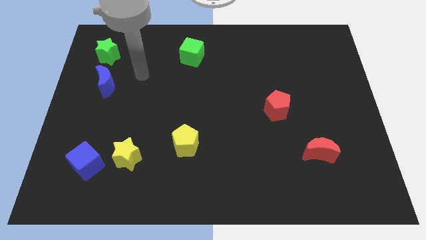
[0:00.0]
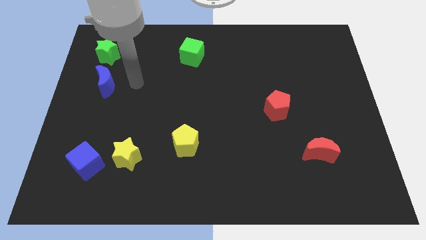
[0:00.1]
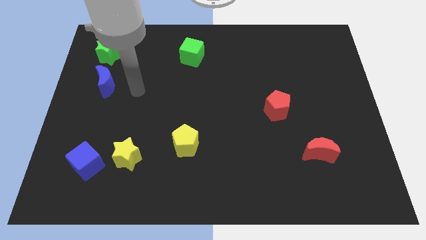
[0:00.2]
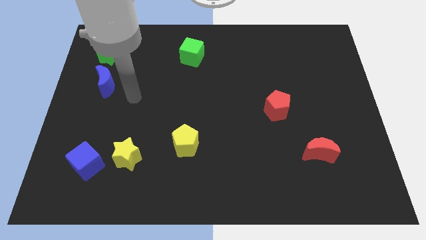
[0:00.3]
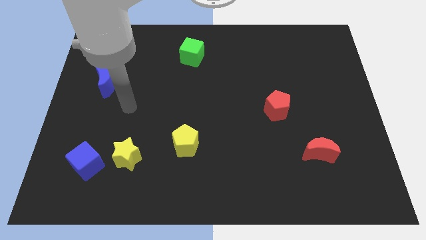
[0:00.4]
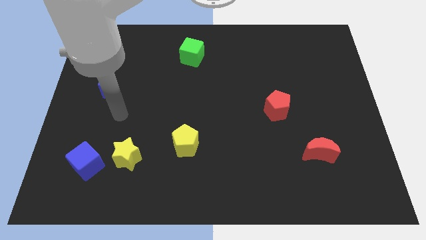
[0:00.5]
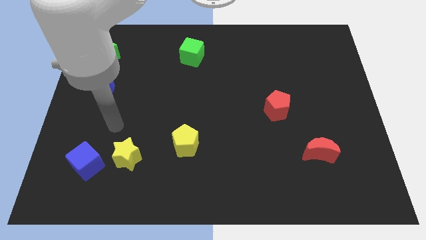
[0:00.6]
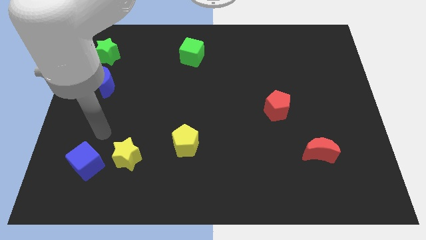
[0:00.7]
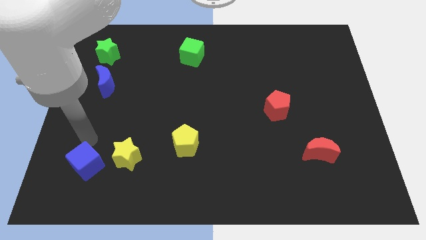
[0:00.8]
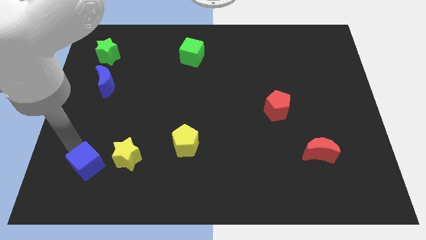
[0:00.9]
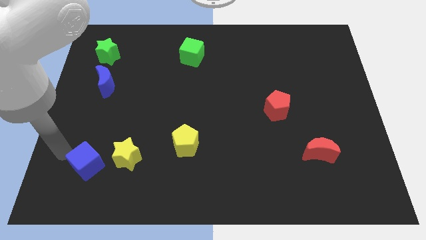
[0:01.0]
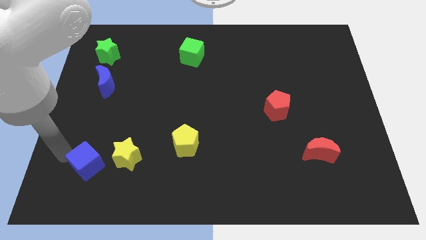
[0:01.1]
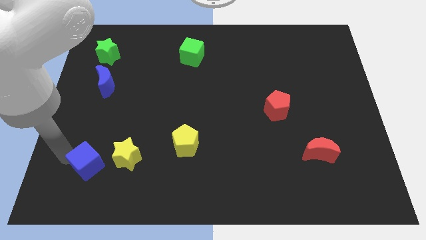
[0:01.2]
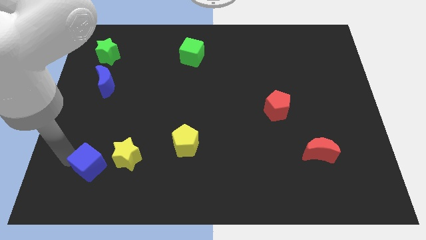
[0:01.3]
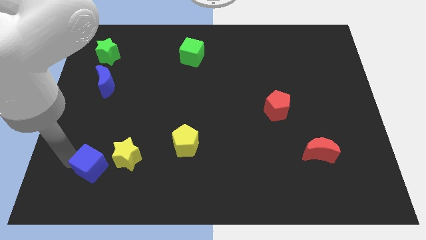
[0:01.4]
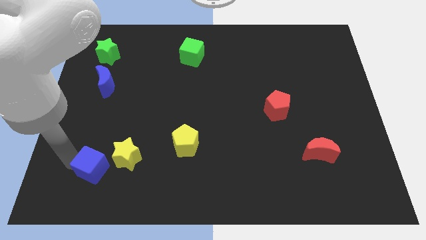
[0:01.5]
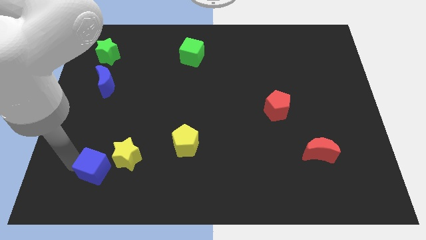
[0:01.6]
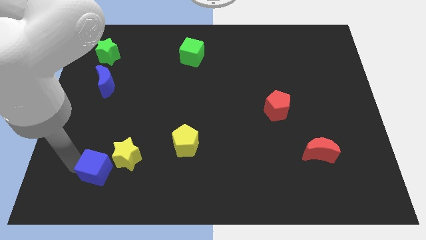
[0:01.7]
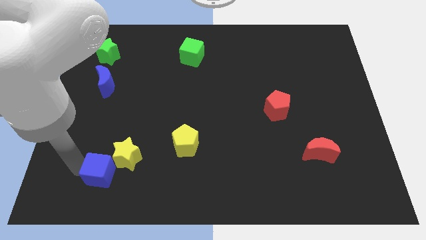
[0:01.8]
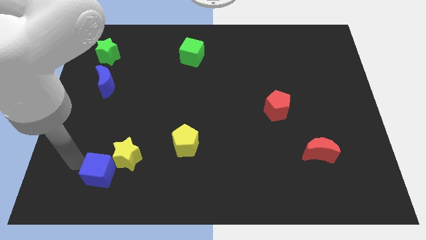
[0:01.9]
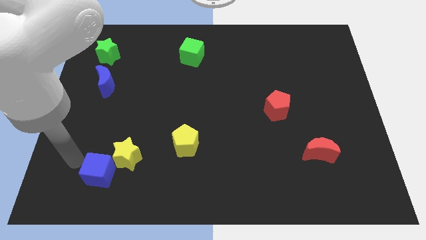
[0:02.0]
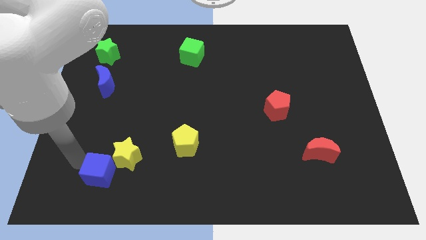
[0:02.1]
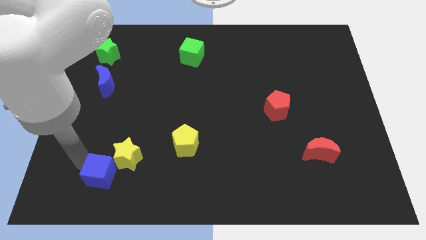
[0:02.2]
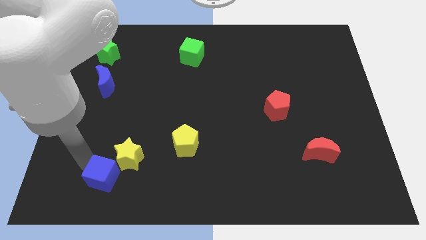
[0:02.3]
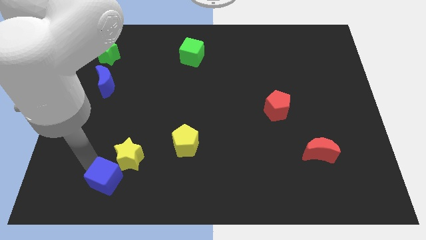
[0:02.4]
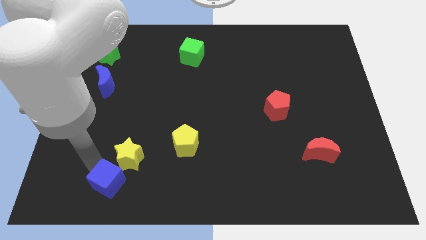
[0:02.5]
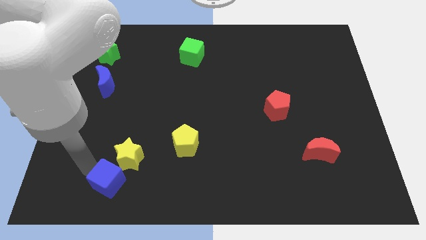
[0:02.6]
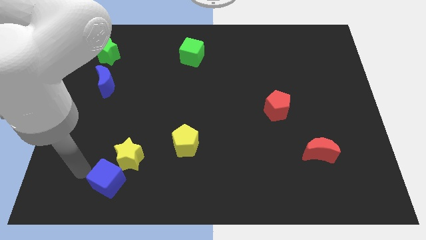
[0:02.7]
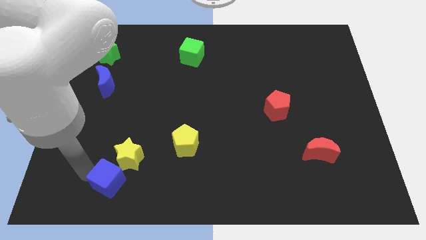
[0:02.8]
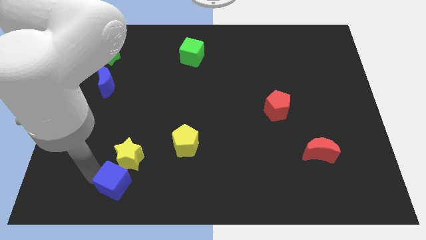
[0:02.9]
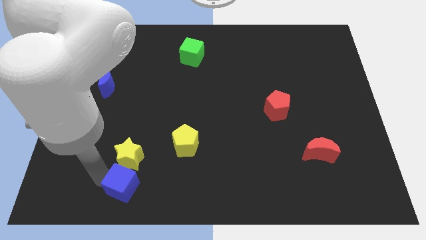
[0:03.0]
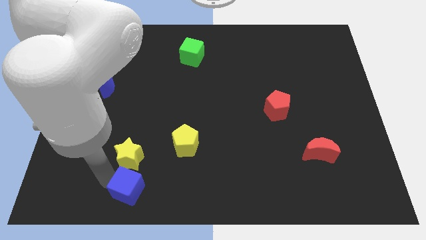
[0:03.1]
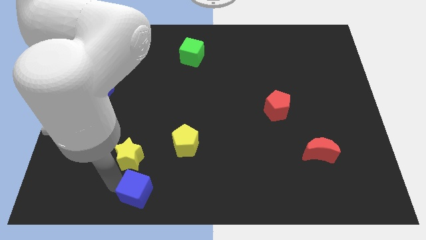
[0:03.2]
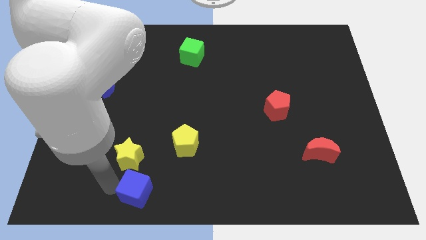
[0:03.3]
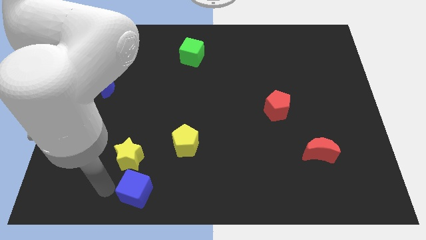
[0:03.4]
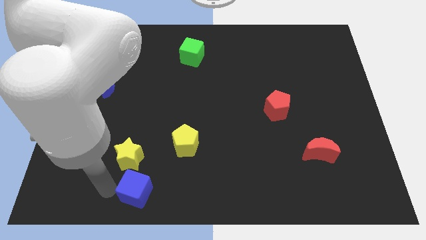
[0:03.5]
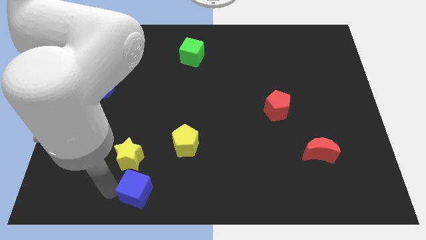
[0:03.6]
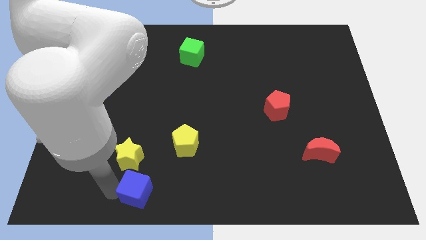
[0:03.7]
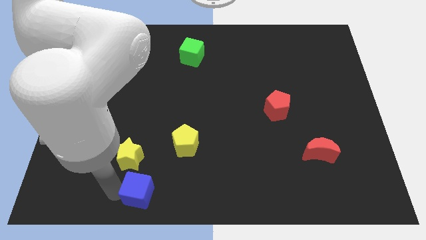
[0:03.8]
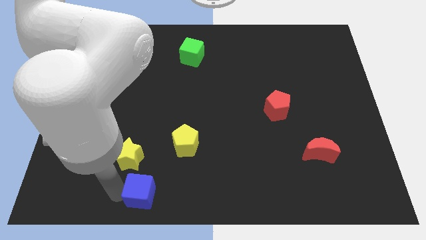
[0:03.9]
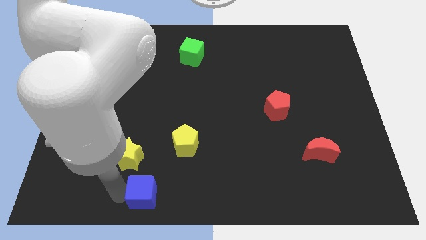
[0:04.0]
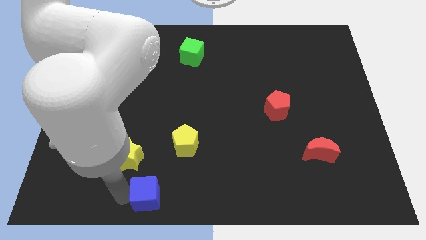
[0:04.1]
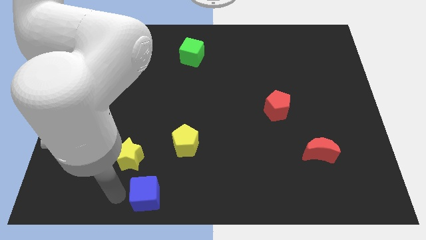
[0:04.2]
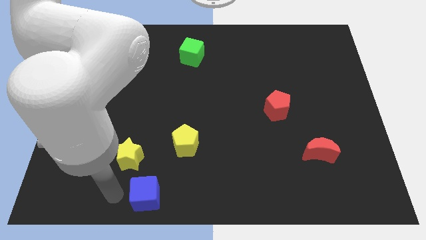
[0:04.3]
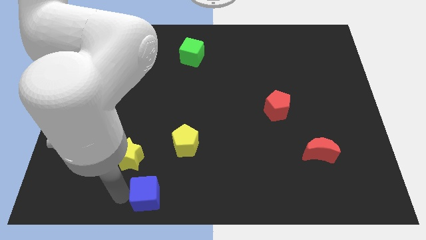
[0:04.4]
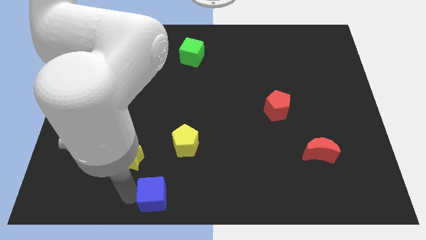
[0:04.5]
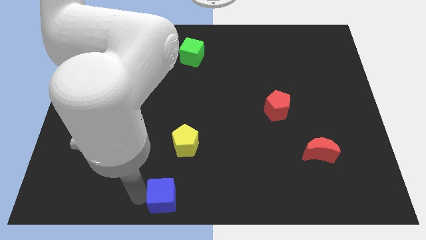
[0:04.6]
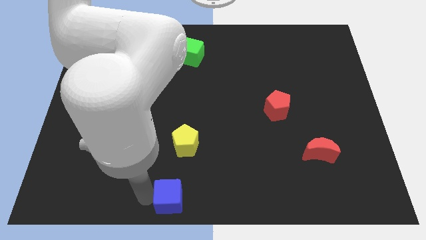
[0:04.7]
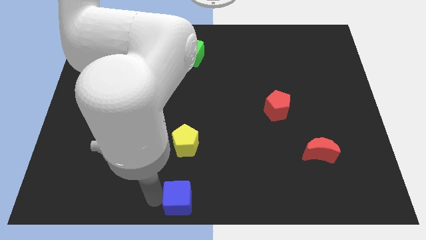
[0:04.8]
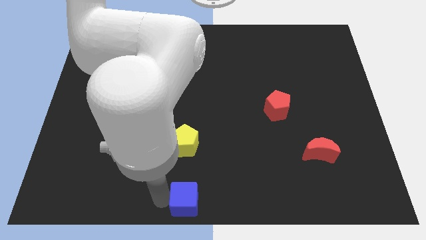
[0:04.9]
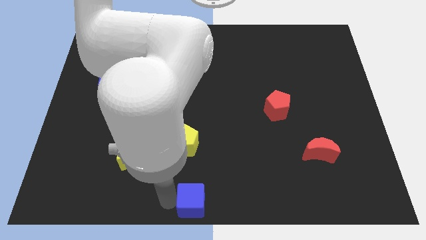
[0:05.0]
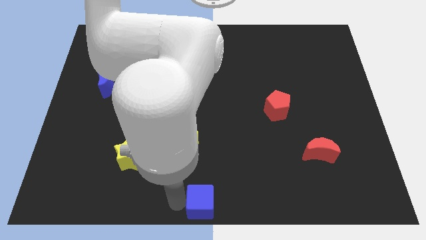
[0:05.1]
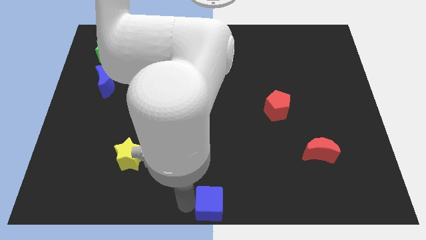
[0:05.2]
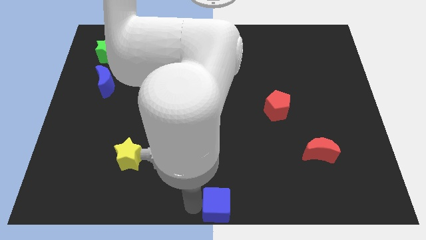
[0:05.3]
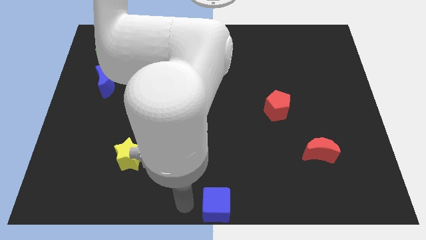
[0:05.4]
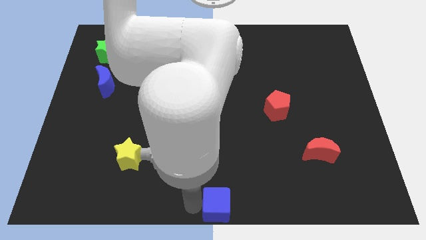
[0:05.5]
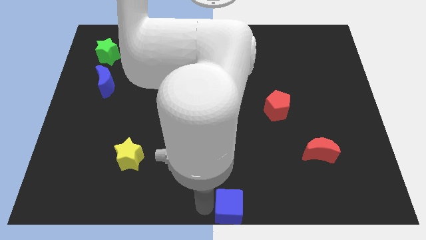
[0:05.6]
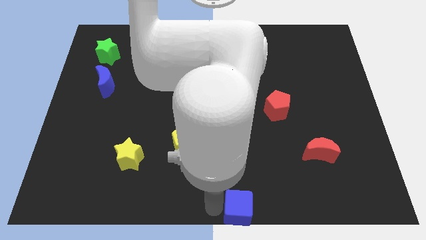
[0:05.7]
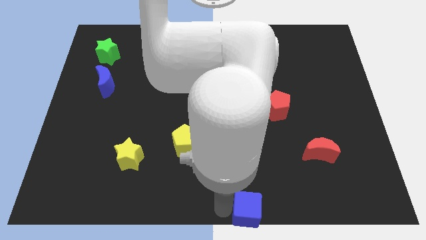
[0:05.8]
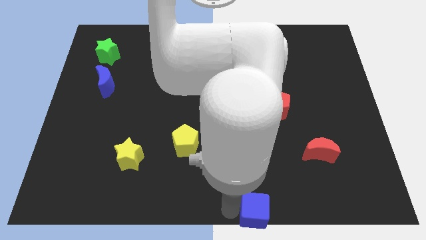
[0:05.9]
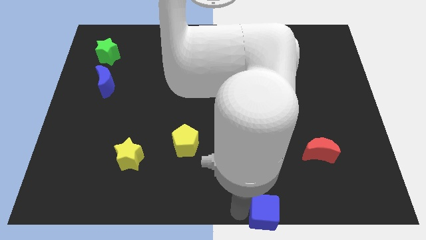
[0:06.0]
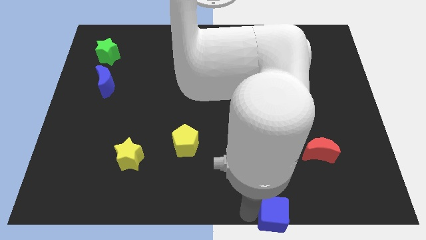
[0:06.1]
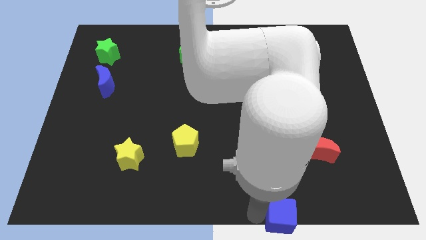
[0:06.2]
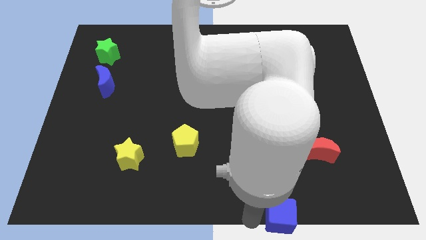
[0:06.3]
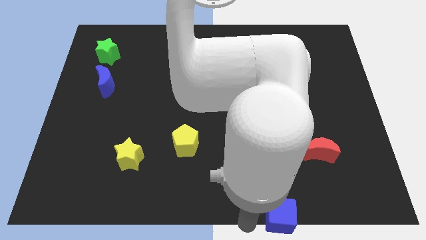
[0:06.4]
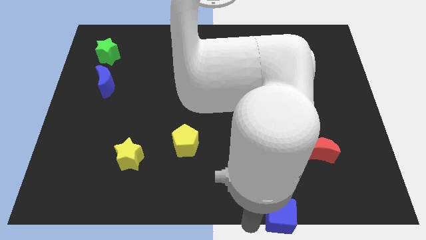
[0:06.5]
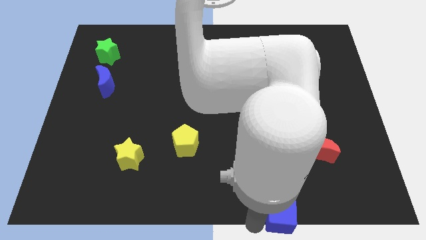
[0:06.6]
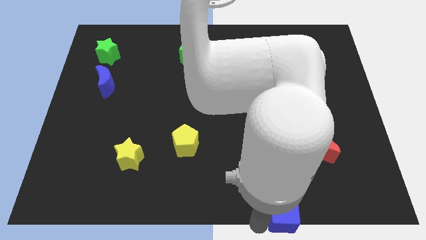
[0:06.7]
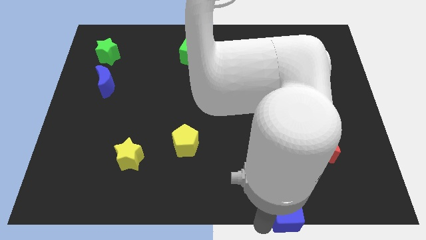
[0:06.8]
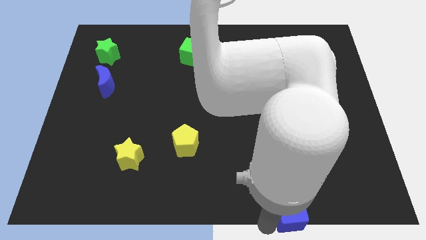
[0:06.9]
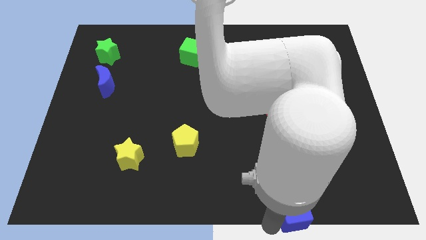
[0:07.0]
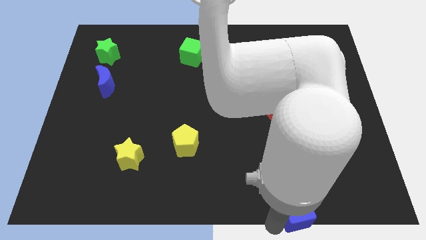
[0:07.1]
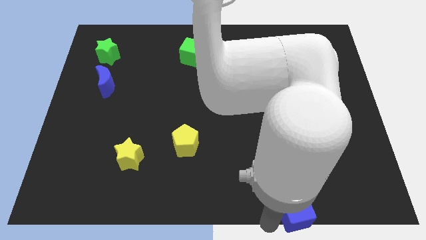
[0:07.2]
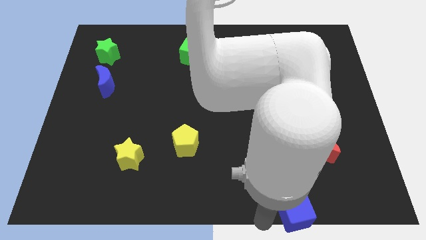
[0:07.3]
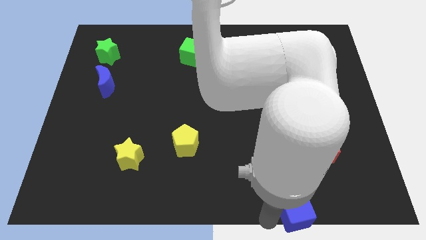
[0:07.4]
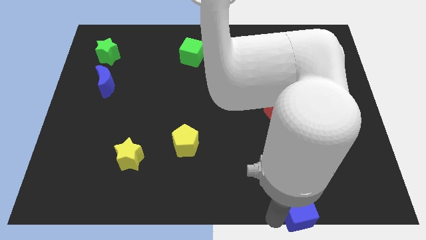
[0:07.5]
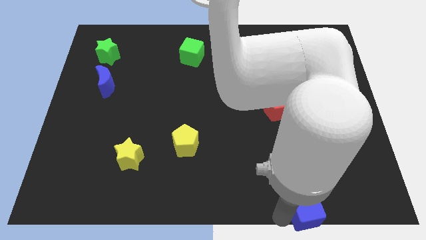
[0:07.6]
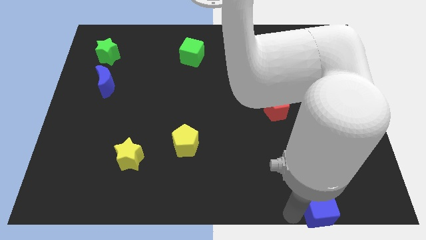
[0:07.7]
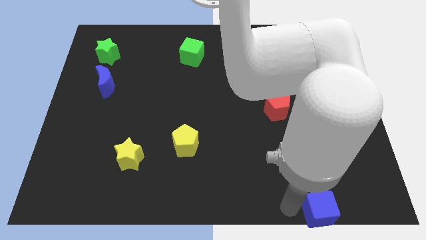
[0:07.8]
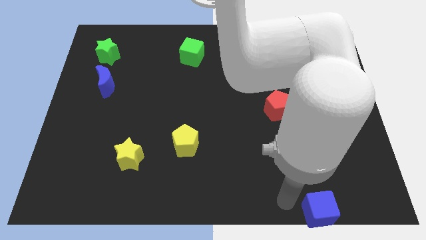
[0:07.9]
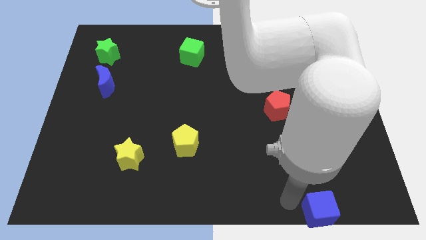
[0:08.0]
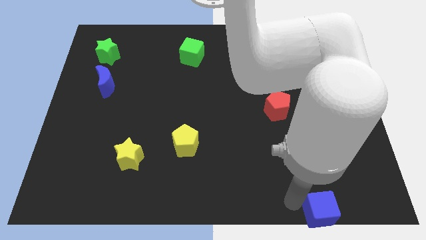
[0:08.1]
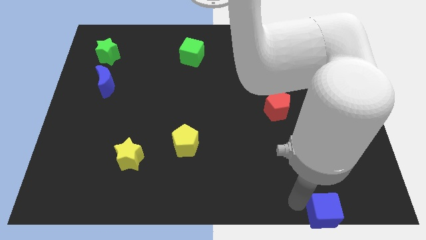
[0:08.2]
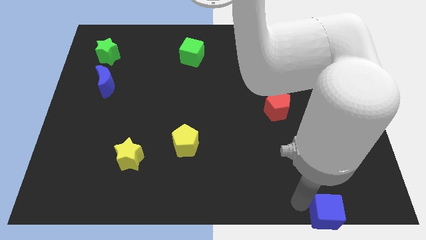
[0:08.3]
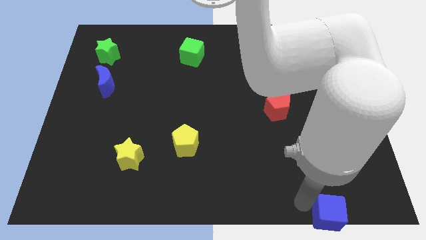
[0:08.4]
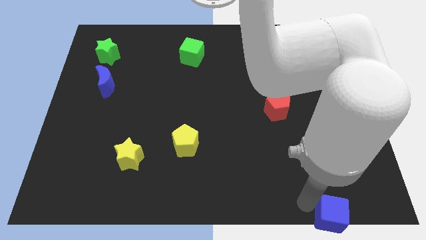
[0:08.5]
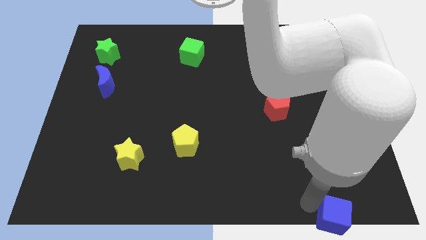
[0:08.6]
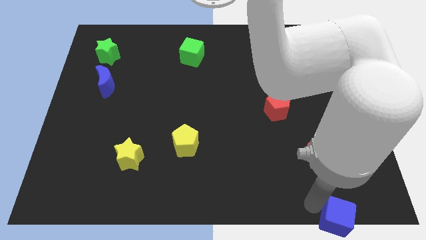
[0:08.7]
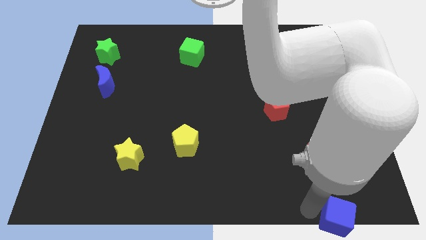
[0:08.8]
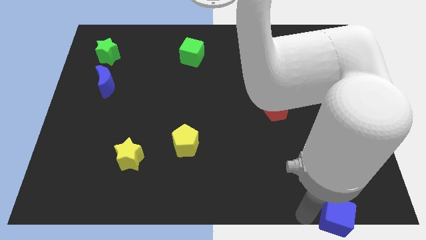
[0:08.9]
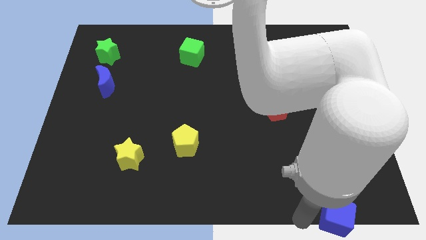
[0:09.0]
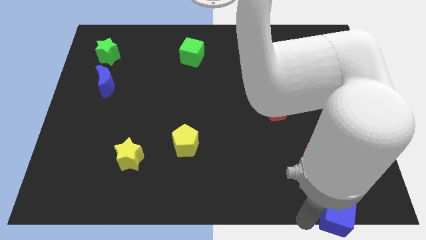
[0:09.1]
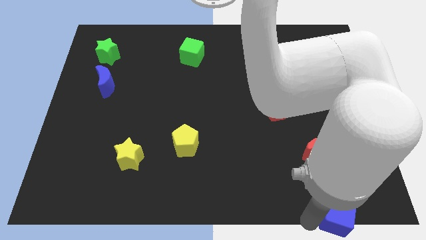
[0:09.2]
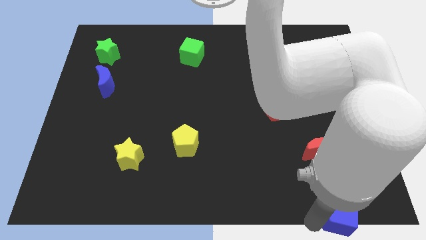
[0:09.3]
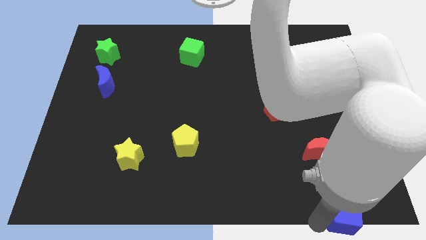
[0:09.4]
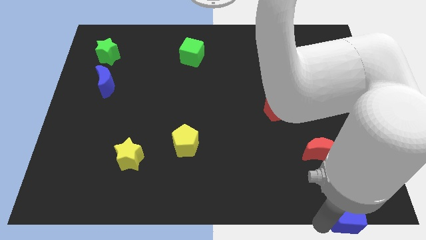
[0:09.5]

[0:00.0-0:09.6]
put the blue cube to the bottom right
